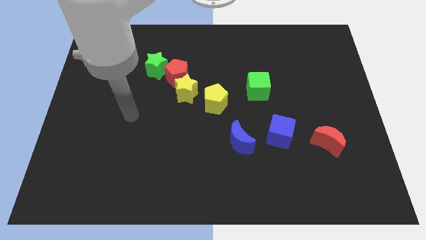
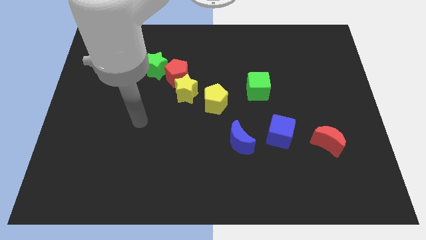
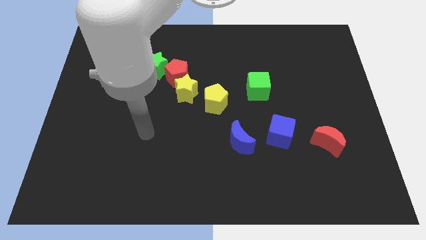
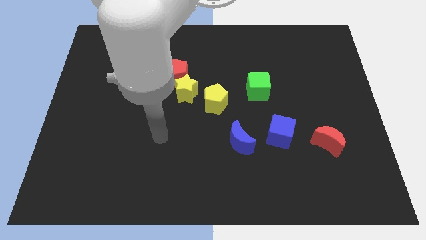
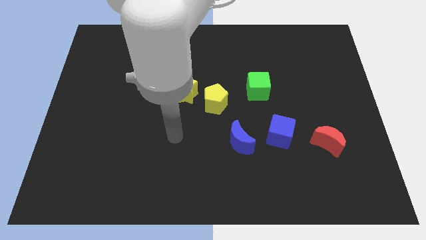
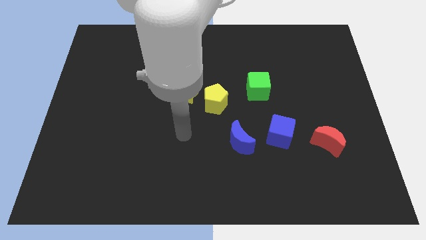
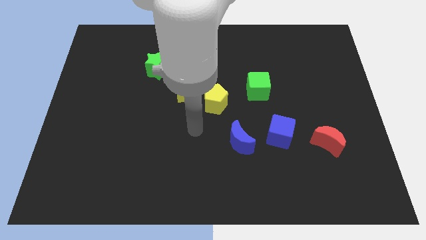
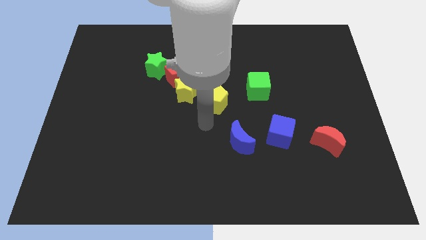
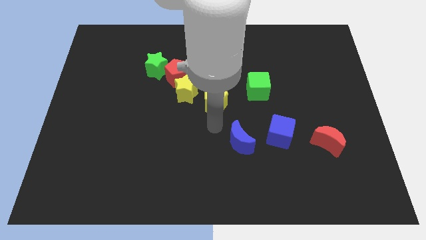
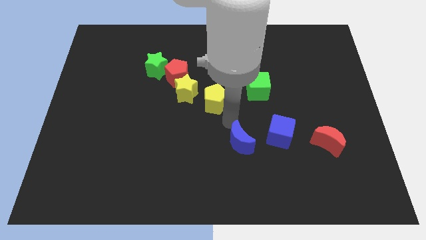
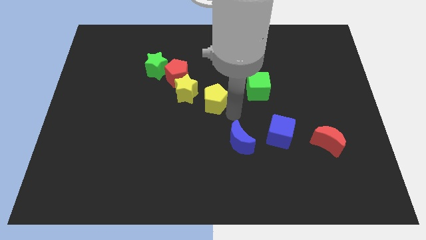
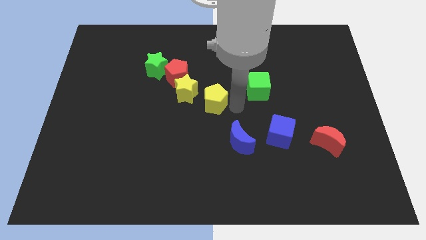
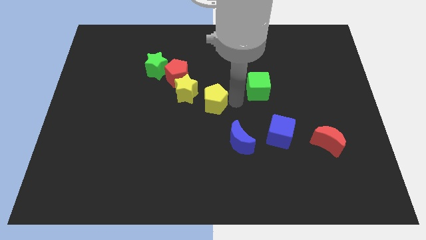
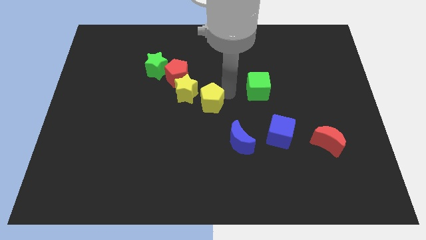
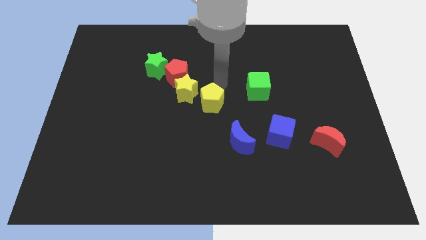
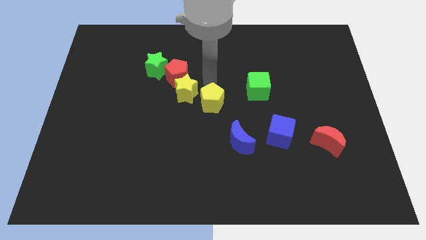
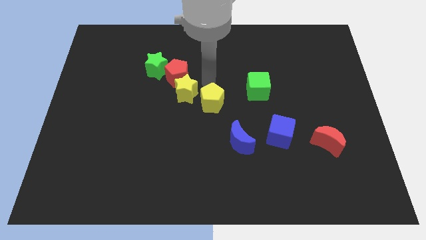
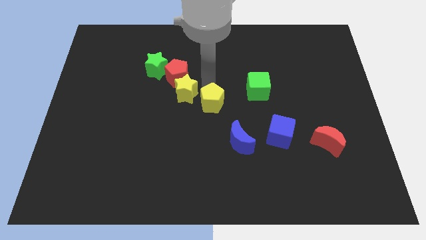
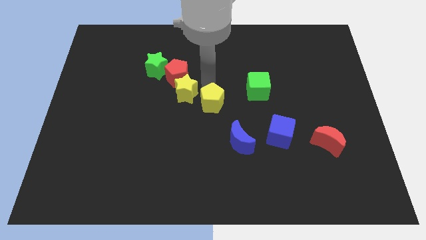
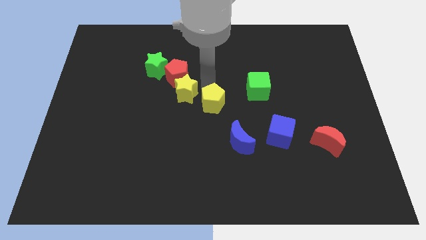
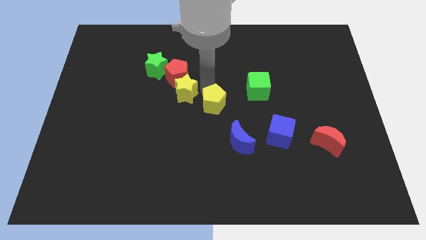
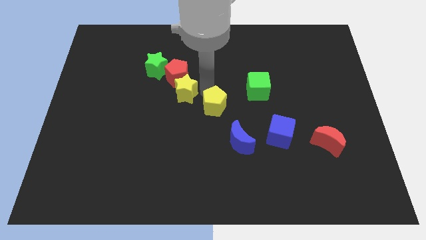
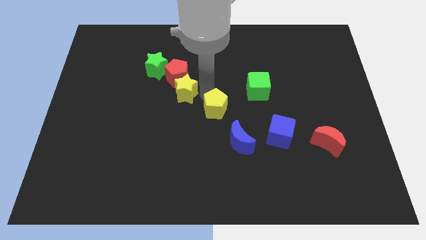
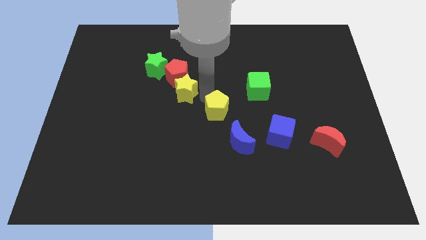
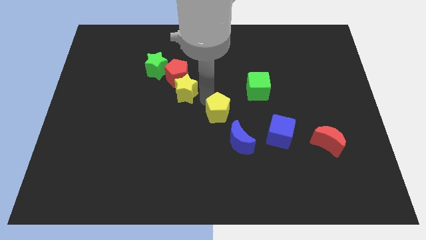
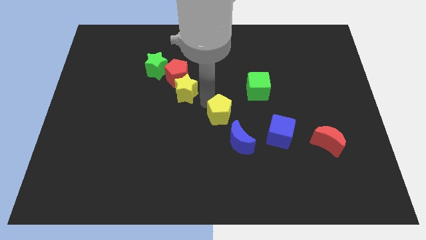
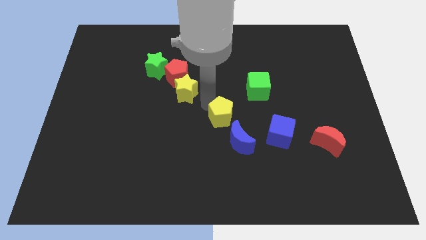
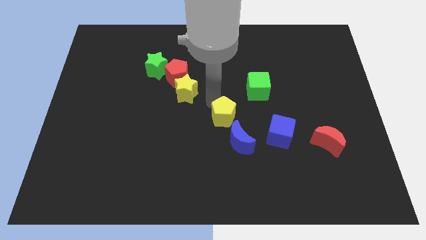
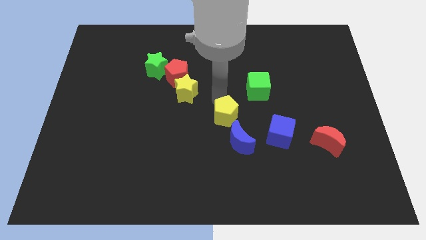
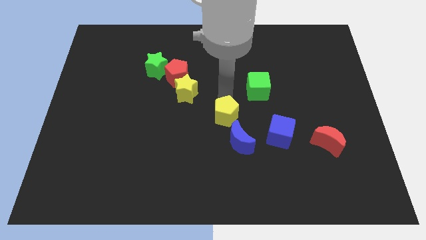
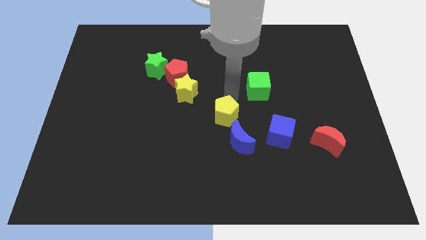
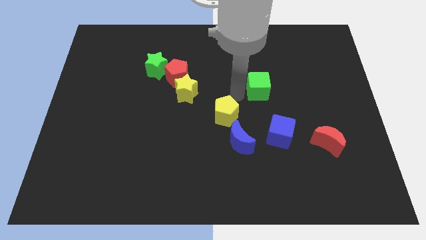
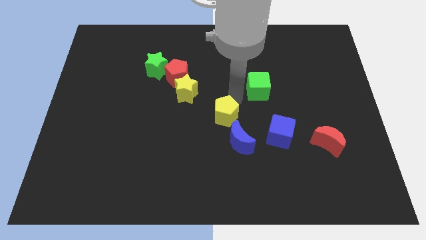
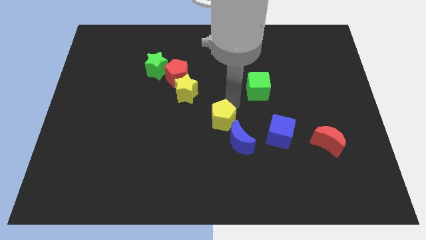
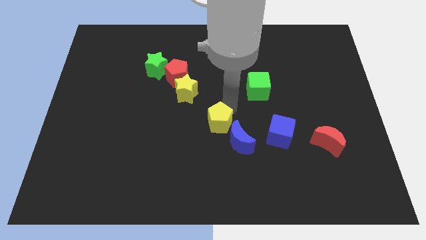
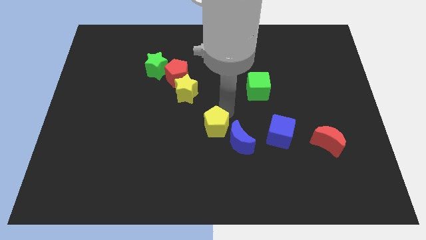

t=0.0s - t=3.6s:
slide the yellow pentagon a little bit down

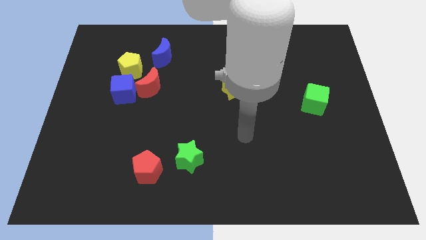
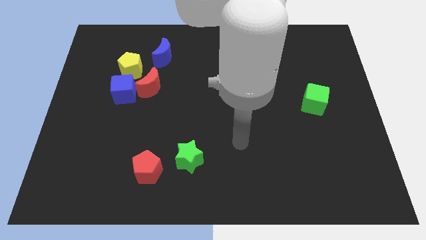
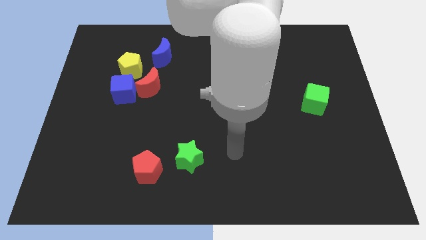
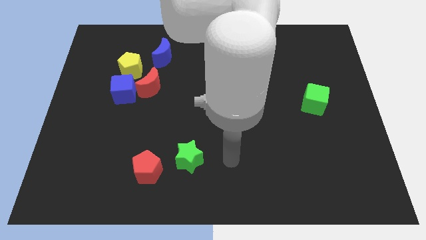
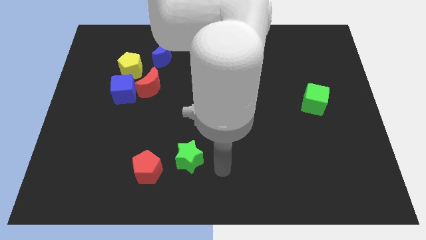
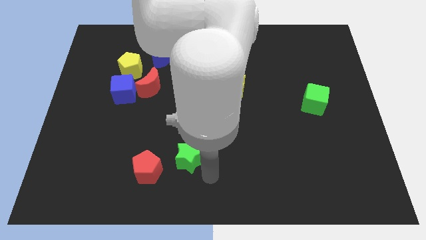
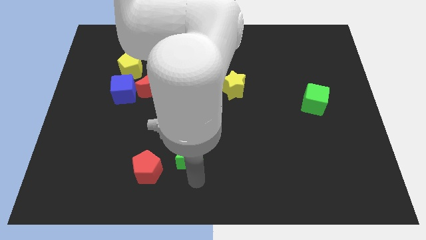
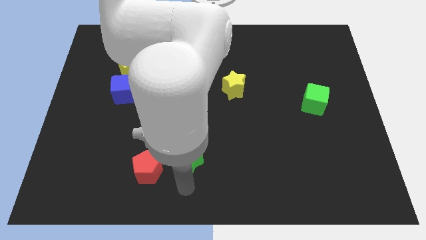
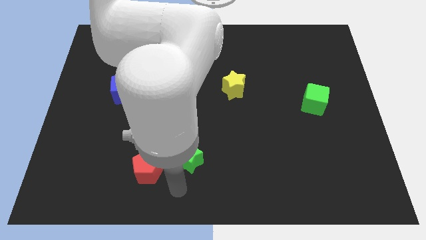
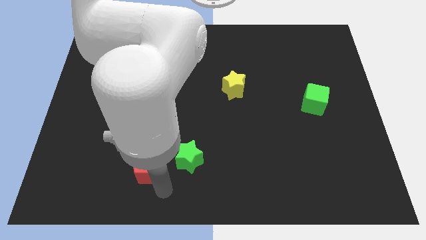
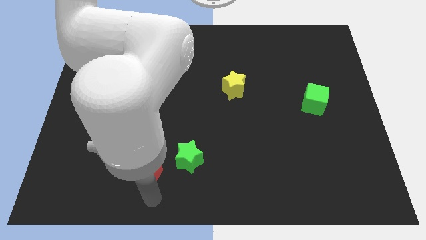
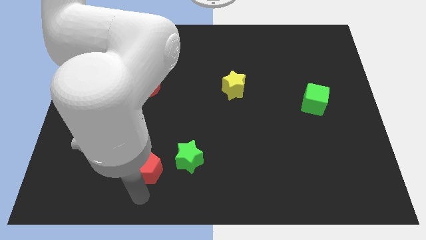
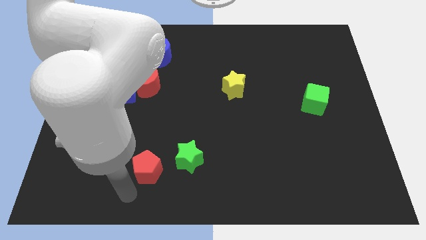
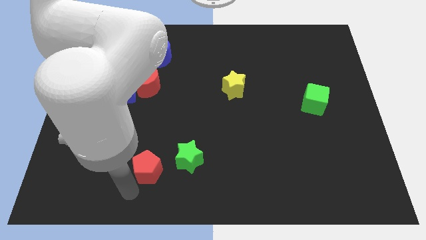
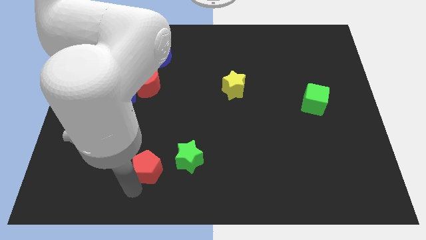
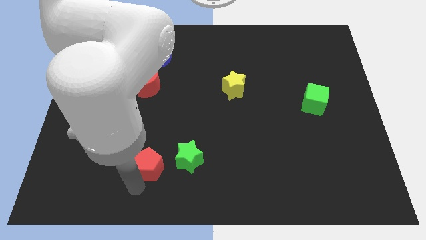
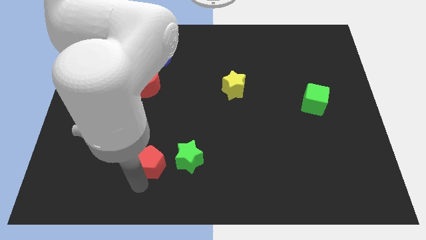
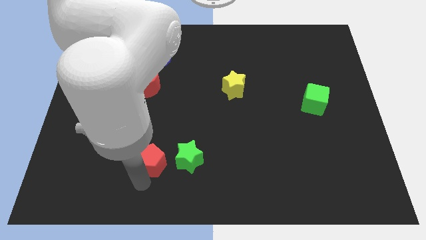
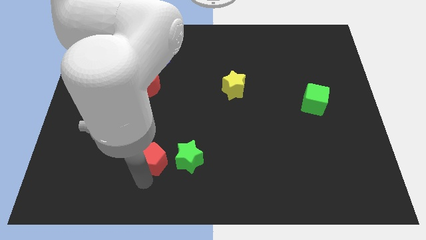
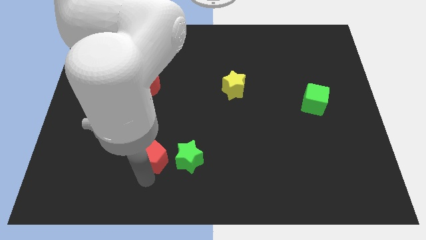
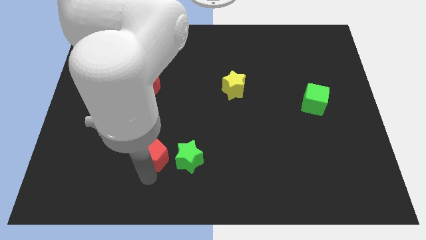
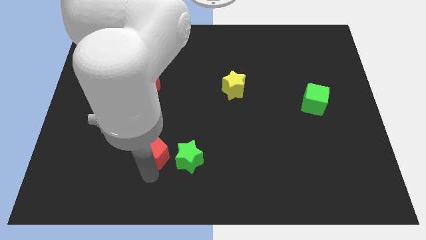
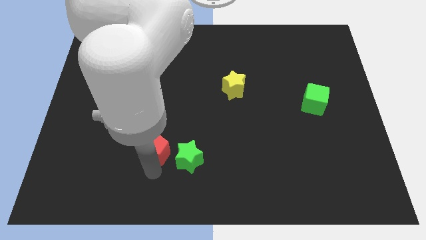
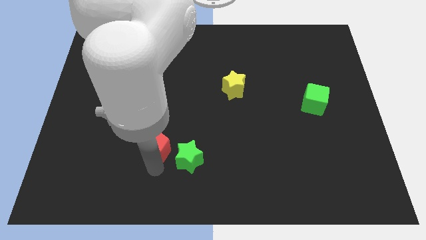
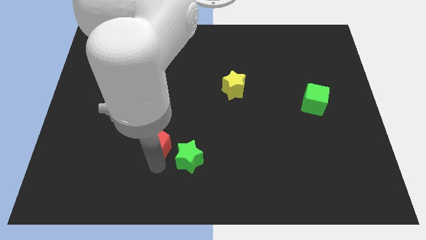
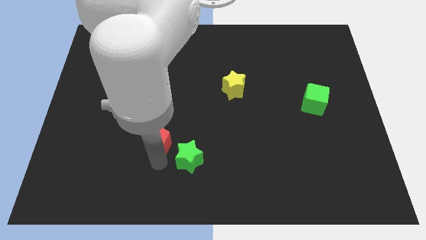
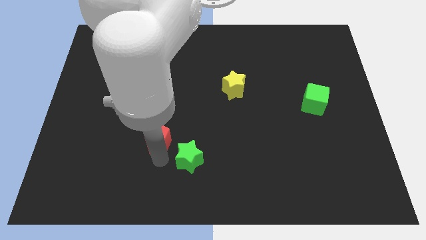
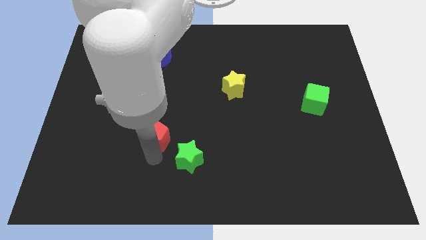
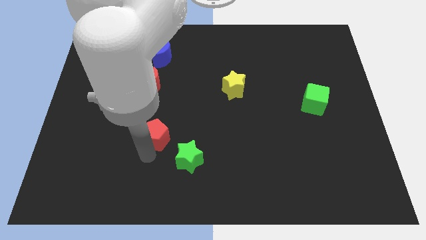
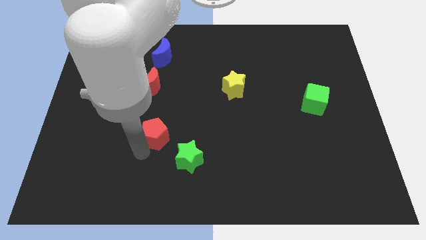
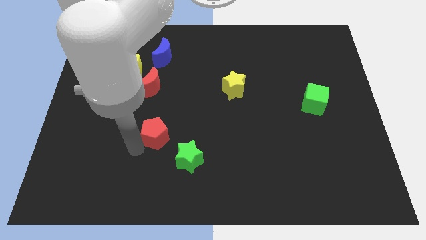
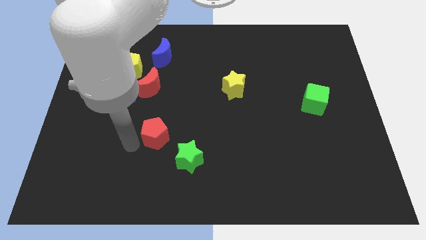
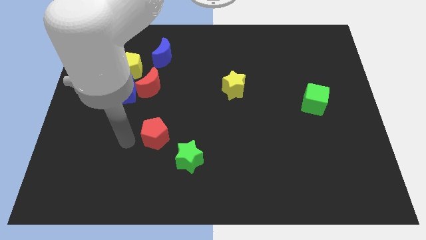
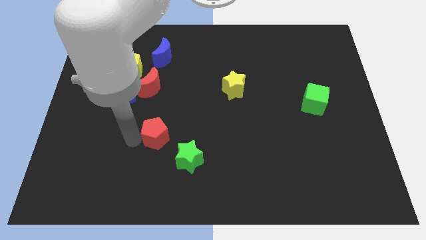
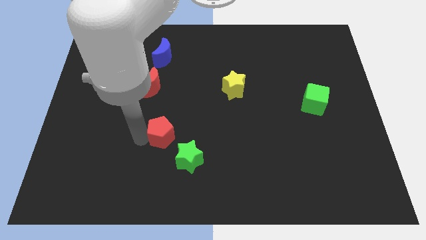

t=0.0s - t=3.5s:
push the red pentagon up and right a little bit

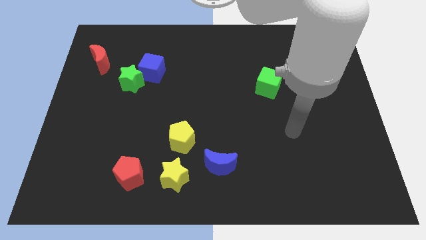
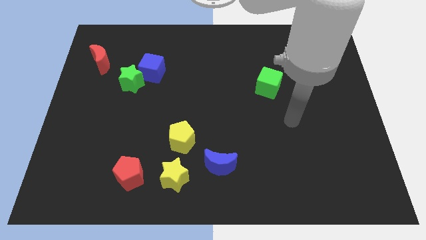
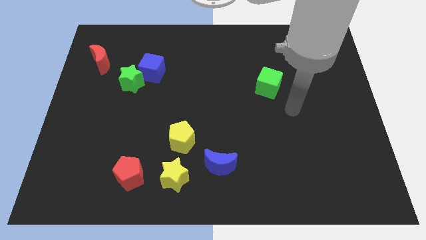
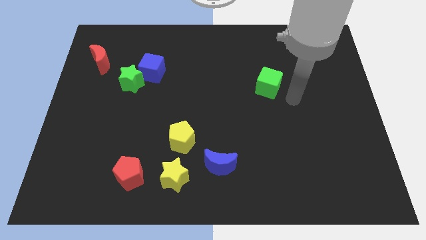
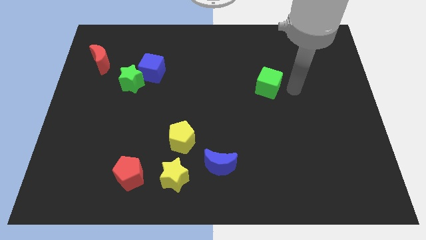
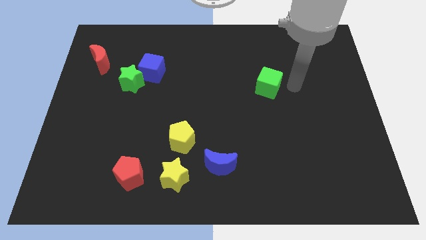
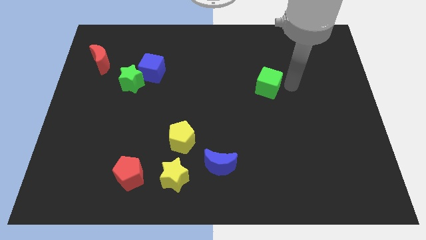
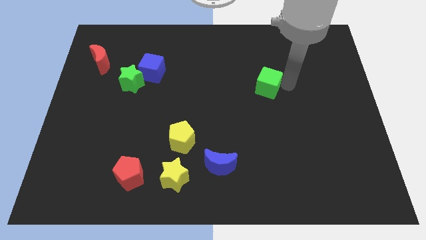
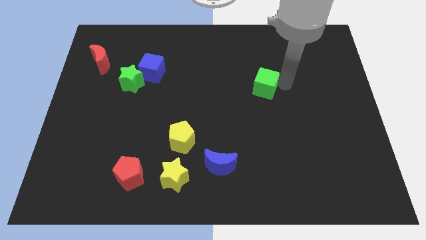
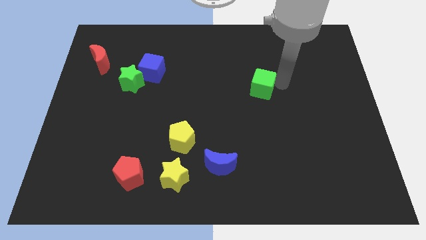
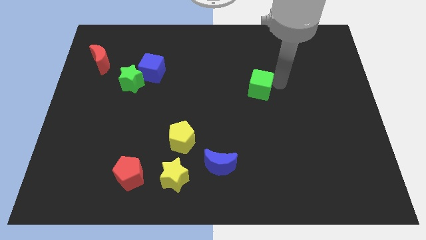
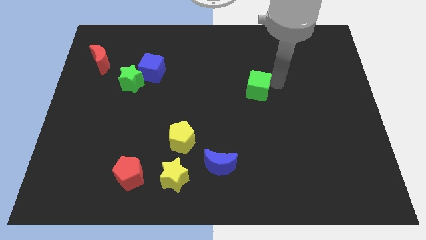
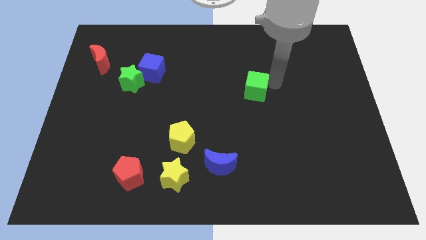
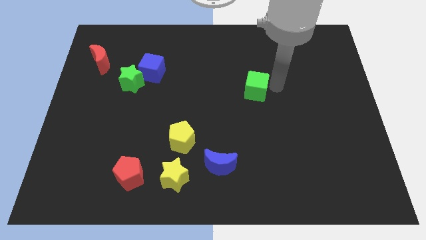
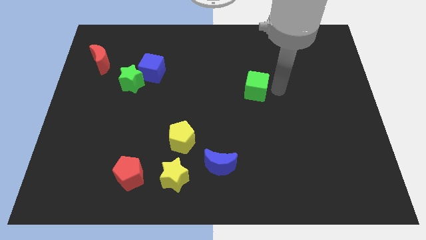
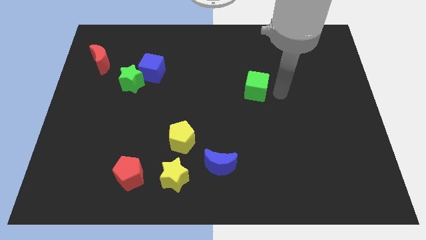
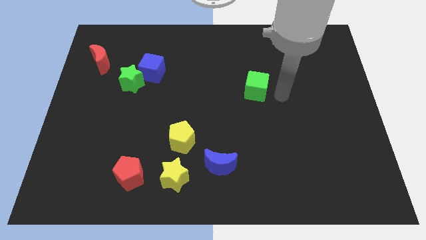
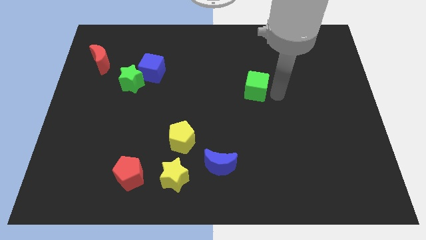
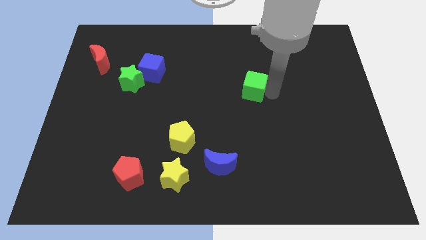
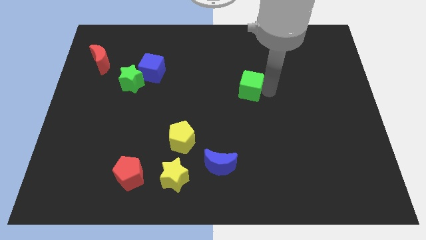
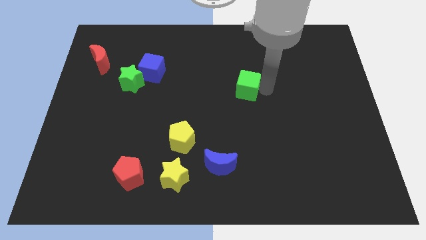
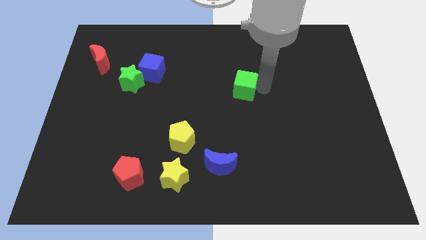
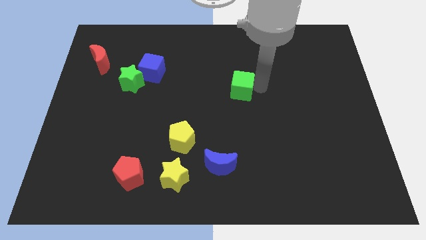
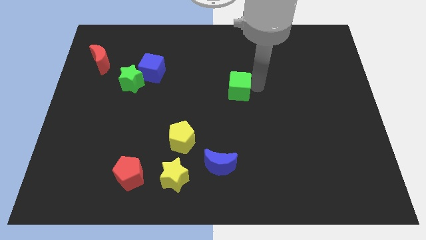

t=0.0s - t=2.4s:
push the green cube to the left a little
